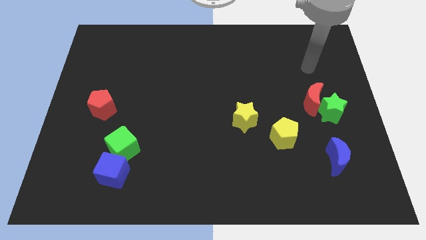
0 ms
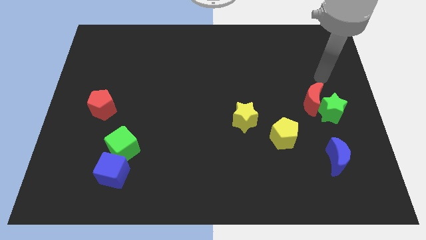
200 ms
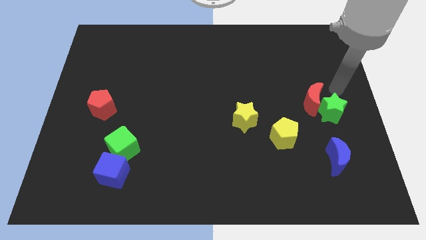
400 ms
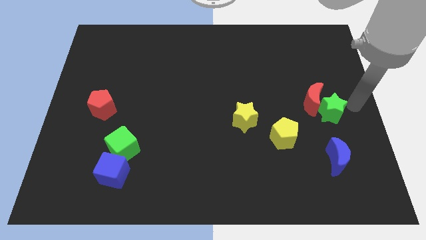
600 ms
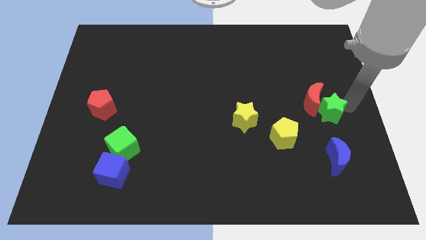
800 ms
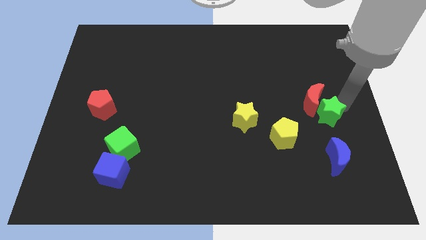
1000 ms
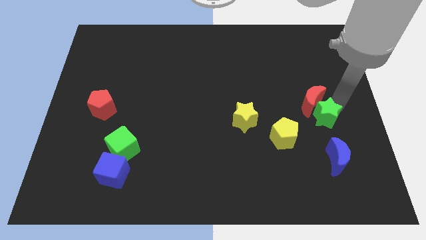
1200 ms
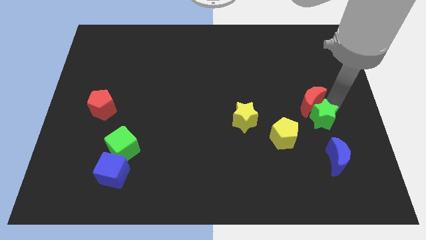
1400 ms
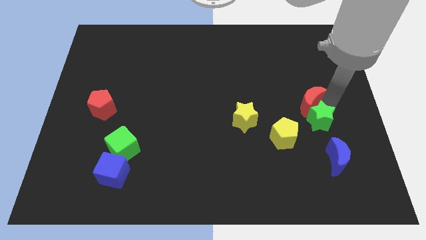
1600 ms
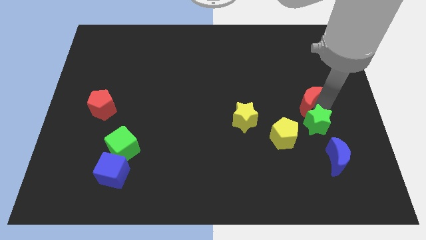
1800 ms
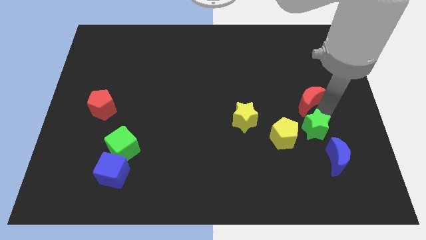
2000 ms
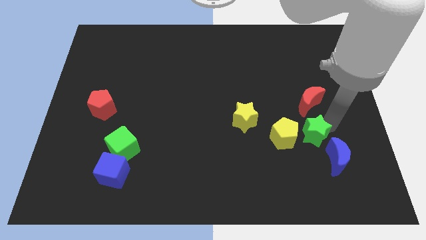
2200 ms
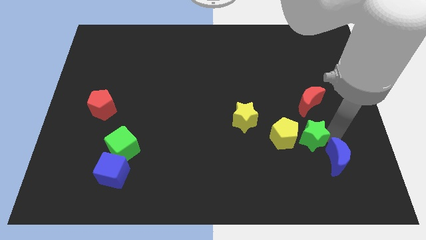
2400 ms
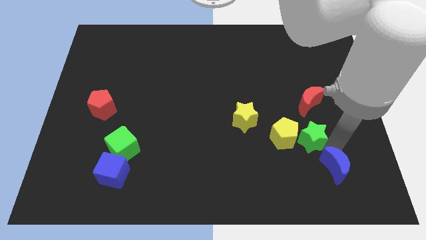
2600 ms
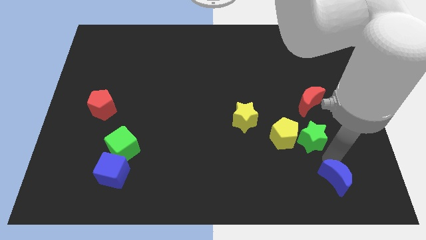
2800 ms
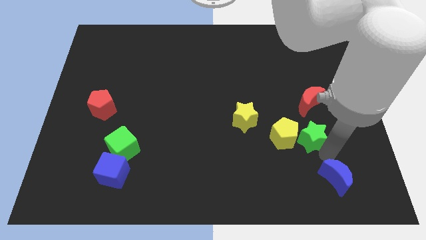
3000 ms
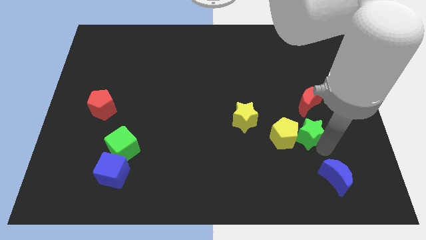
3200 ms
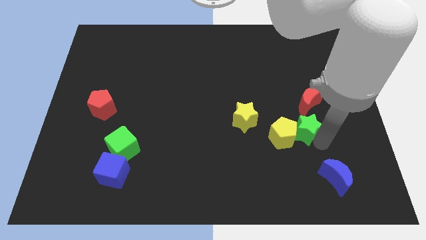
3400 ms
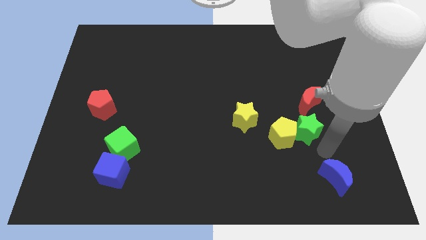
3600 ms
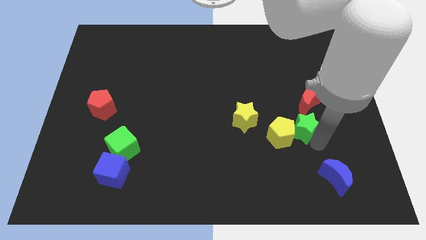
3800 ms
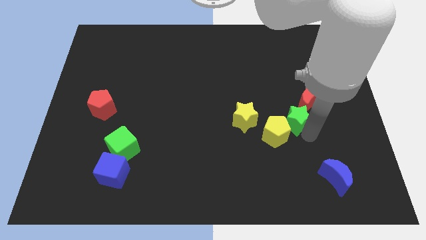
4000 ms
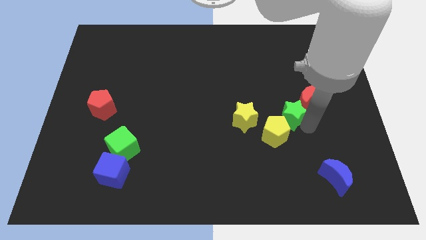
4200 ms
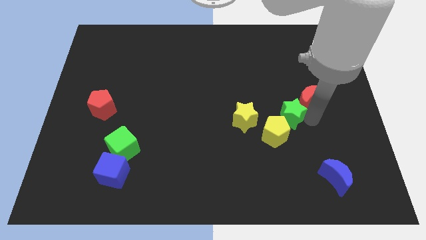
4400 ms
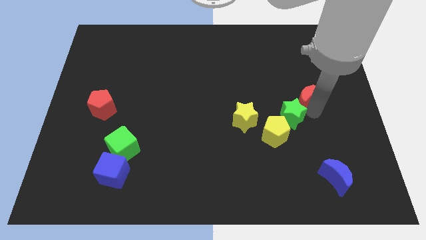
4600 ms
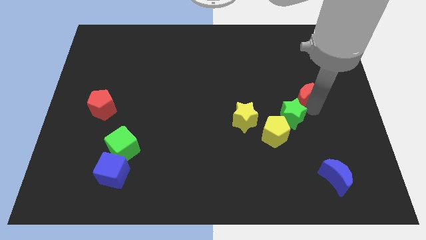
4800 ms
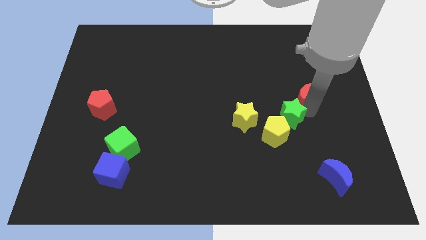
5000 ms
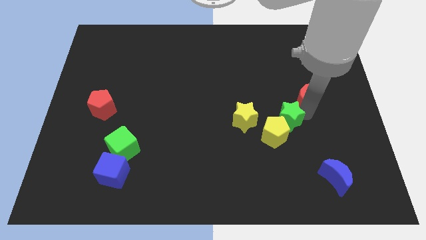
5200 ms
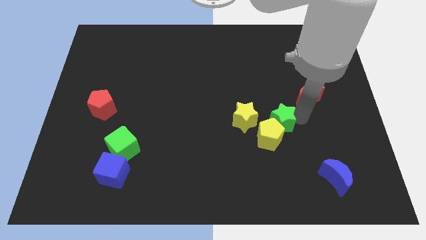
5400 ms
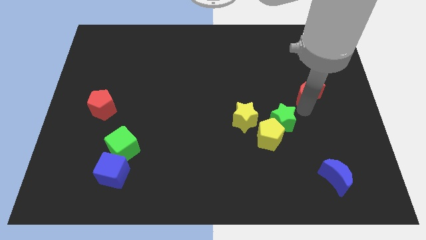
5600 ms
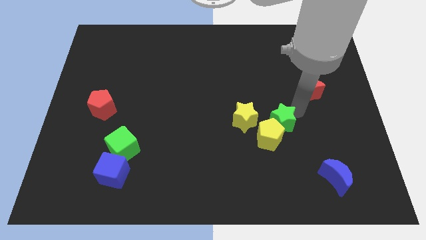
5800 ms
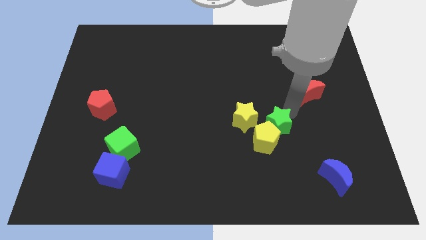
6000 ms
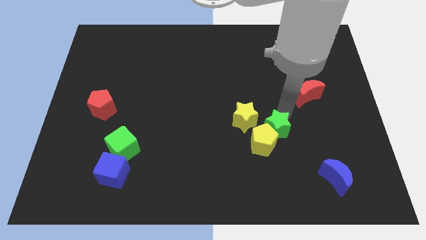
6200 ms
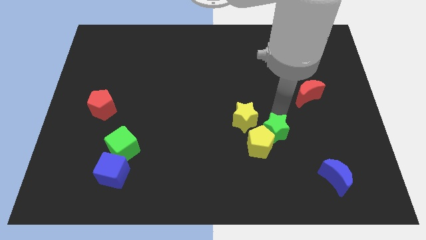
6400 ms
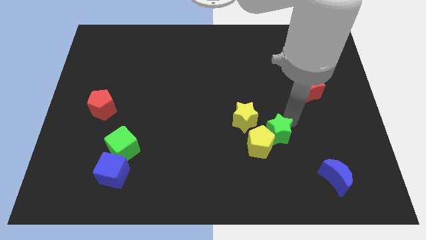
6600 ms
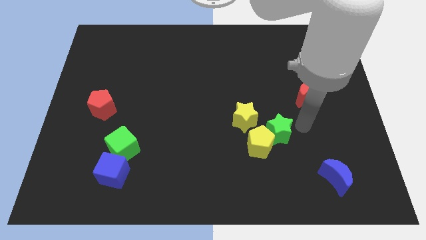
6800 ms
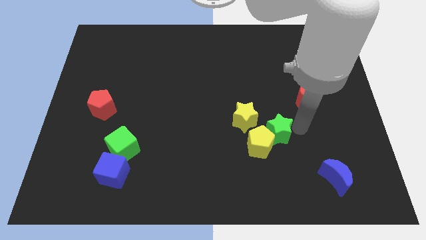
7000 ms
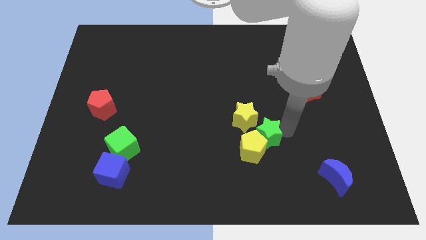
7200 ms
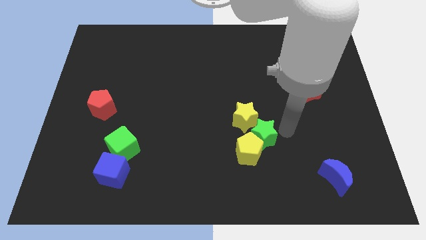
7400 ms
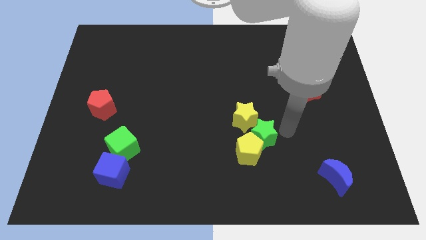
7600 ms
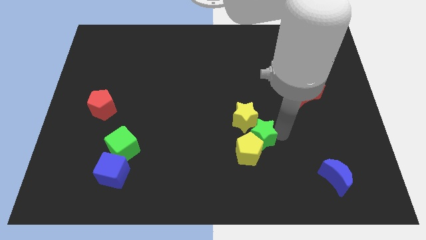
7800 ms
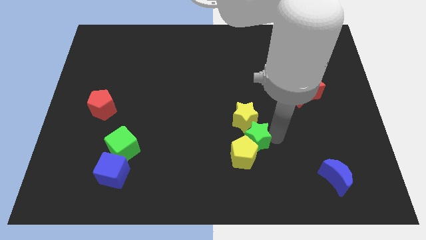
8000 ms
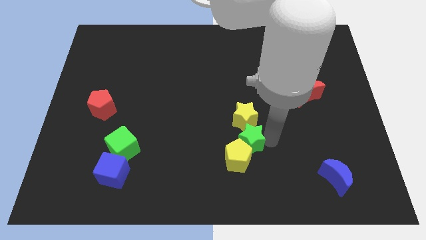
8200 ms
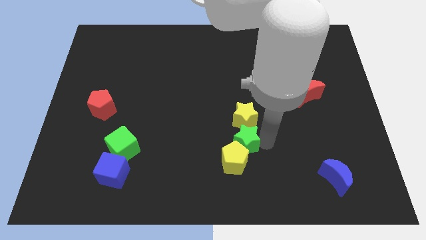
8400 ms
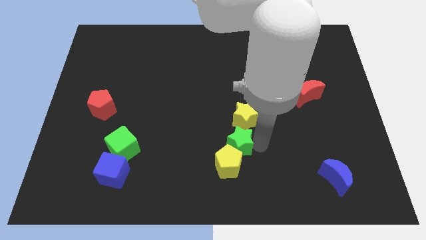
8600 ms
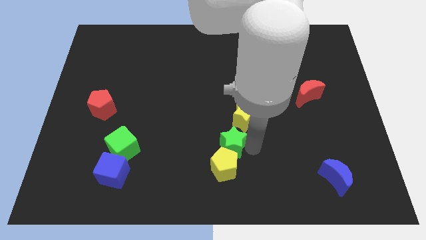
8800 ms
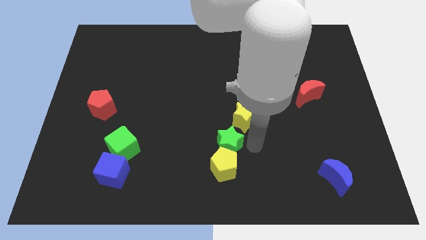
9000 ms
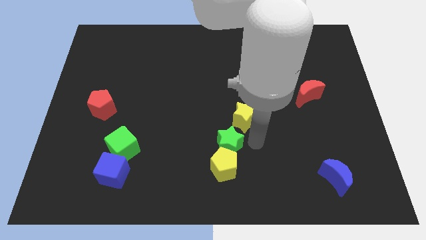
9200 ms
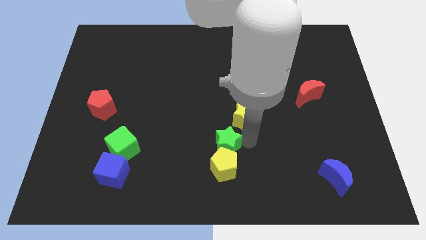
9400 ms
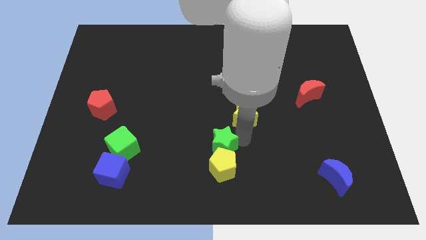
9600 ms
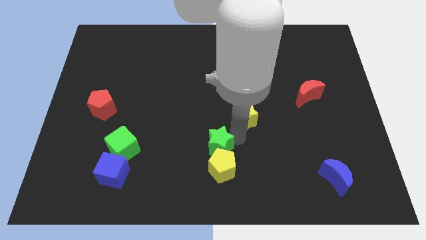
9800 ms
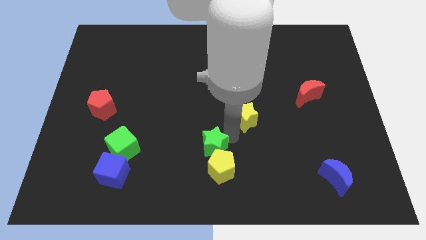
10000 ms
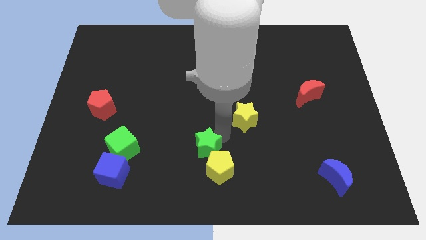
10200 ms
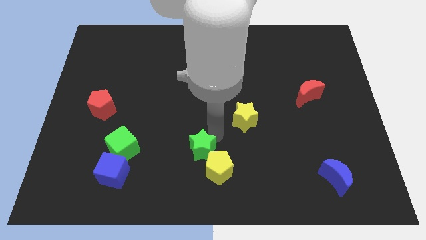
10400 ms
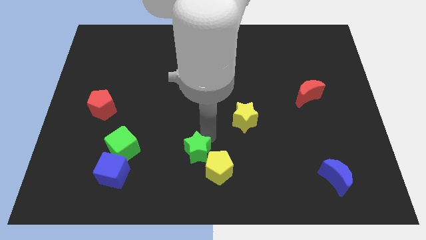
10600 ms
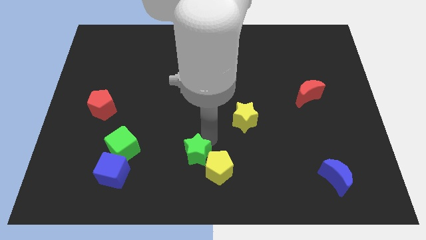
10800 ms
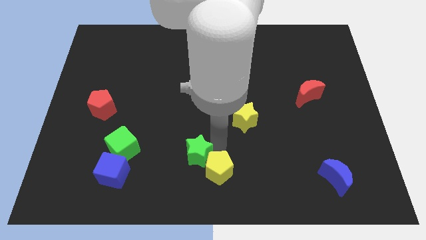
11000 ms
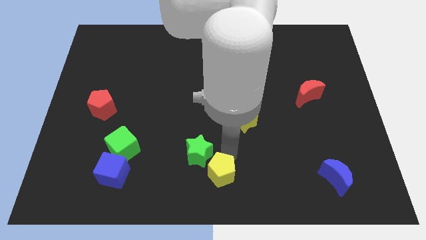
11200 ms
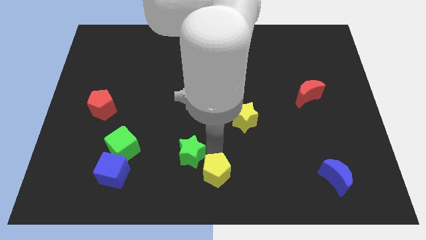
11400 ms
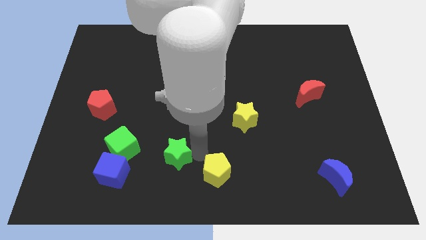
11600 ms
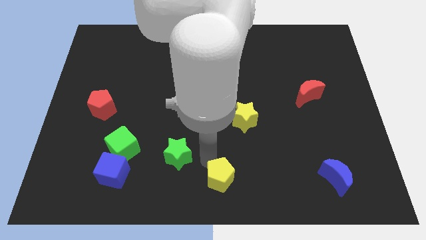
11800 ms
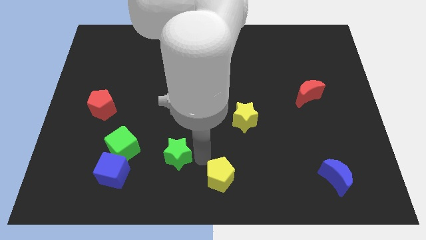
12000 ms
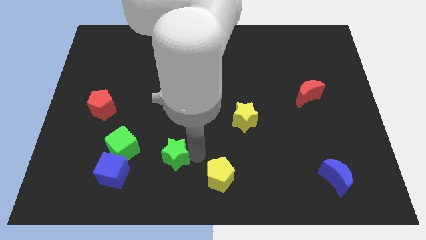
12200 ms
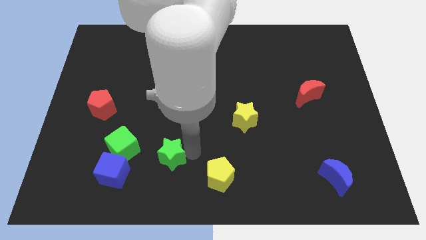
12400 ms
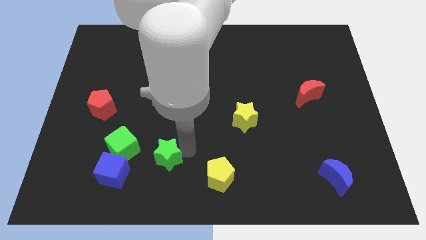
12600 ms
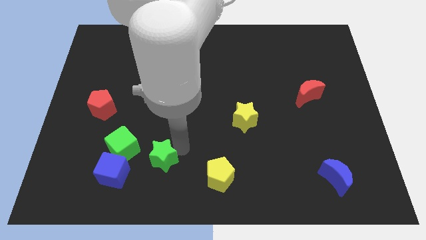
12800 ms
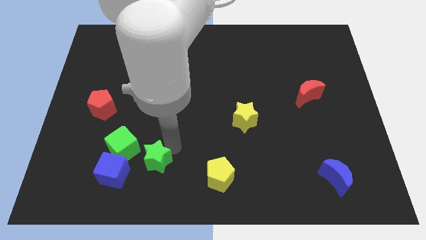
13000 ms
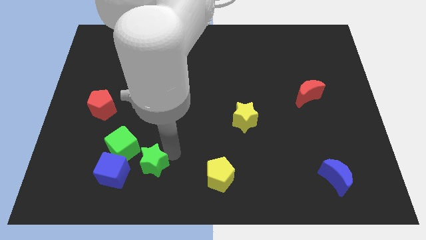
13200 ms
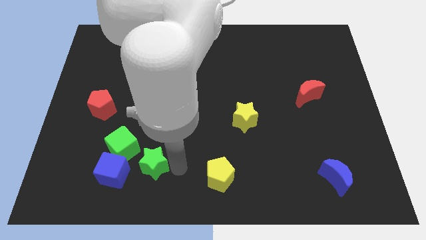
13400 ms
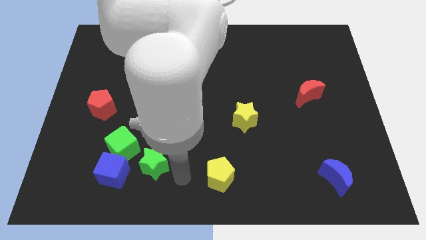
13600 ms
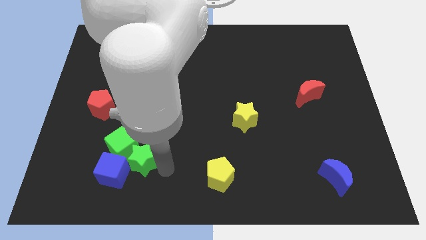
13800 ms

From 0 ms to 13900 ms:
slide the green star next to the green cube
